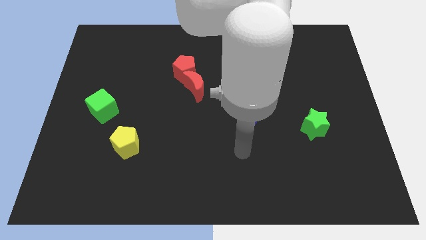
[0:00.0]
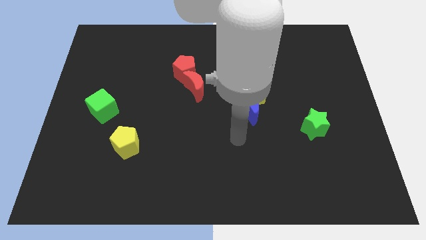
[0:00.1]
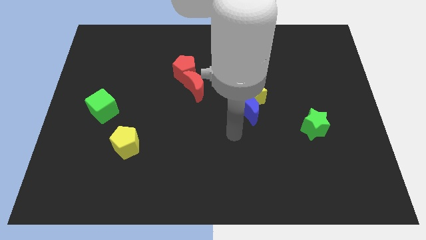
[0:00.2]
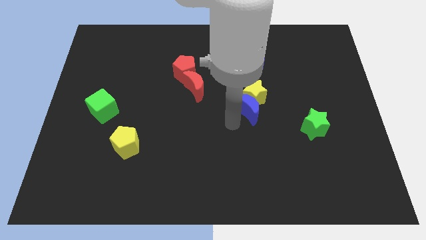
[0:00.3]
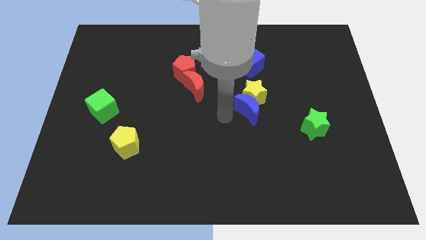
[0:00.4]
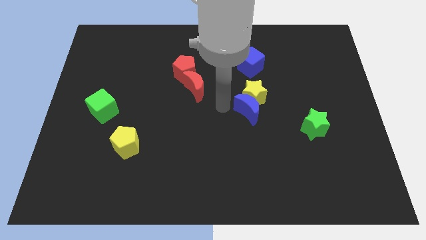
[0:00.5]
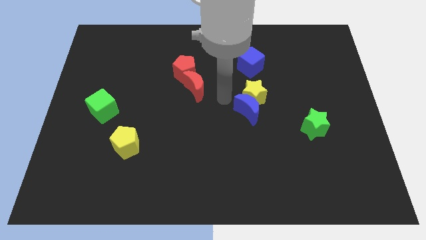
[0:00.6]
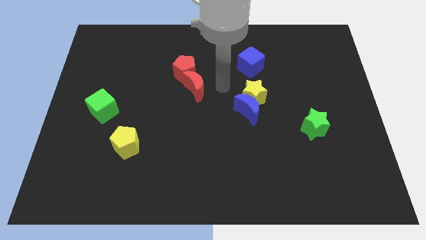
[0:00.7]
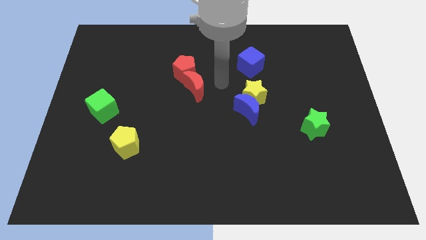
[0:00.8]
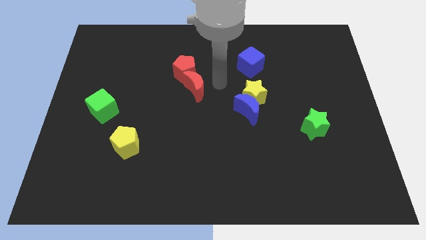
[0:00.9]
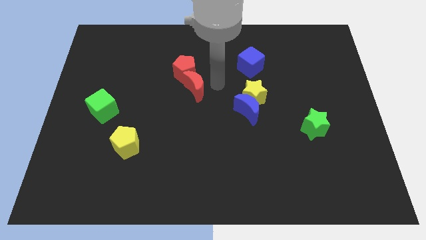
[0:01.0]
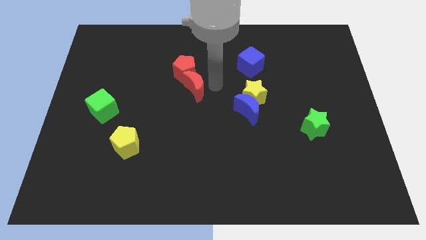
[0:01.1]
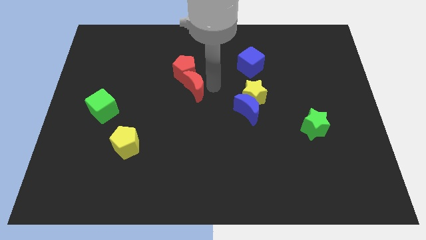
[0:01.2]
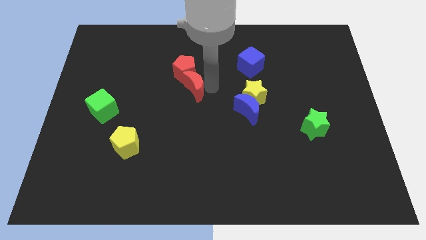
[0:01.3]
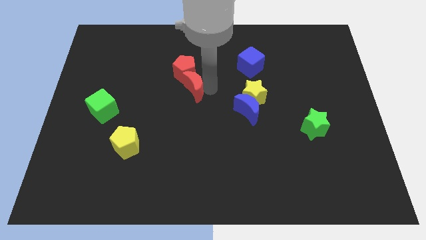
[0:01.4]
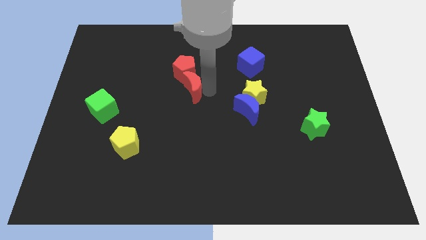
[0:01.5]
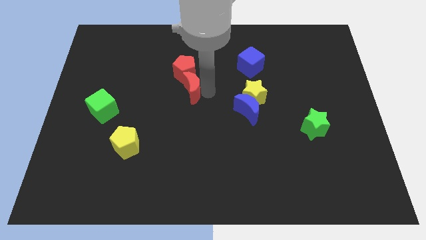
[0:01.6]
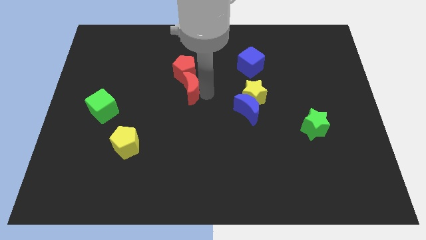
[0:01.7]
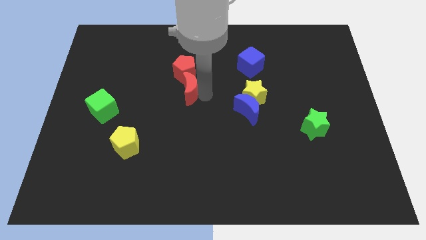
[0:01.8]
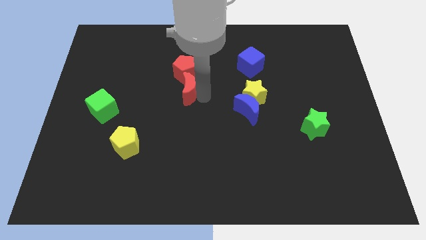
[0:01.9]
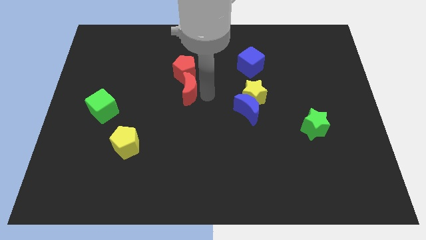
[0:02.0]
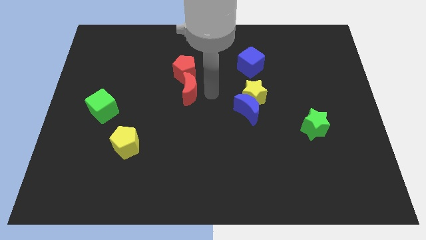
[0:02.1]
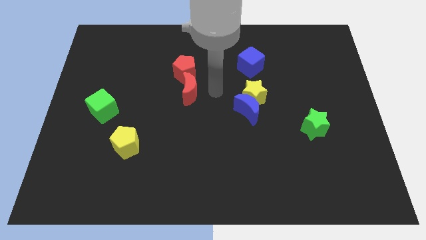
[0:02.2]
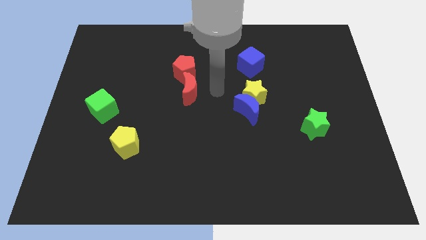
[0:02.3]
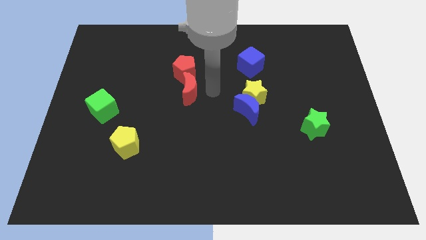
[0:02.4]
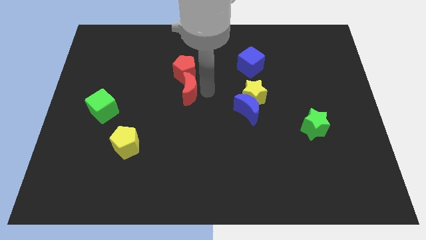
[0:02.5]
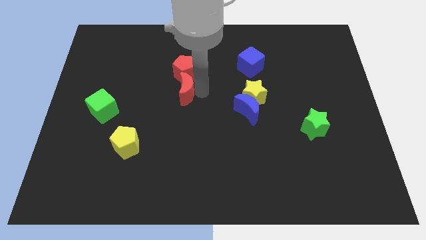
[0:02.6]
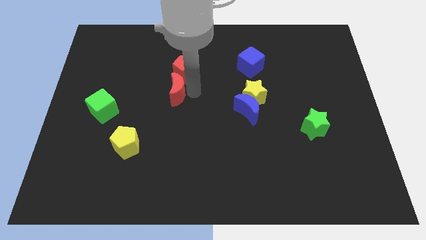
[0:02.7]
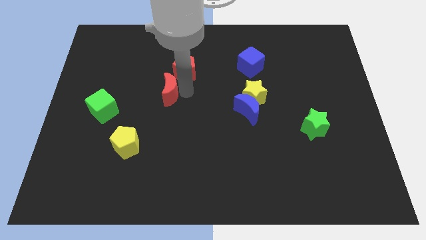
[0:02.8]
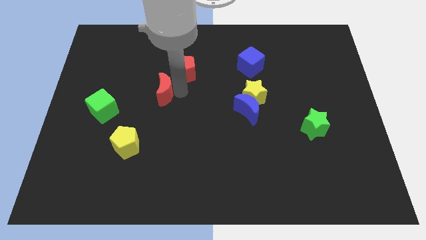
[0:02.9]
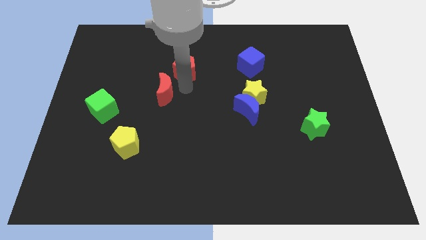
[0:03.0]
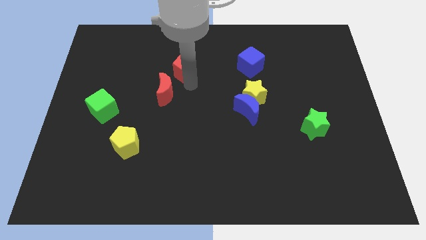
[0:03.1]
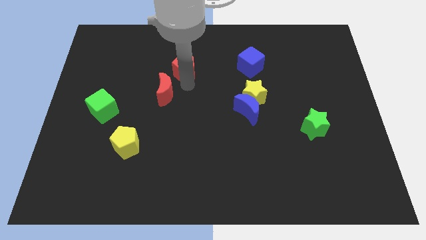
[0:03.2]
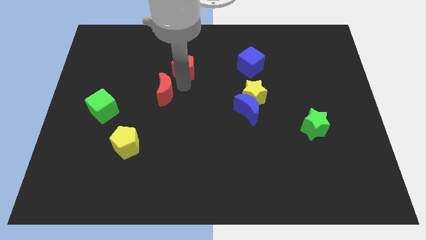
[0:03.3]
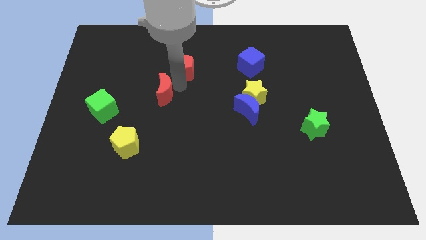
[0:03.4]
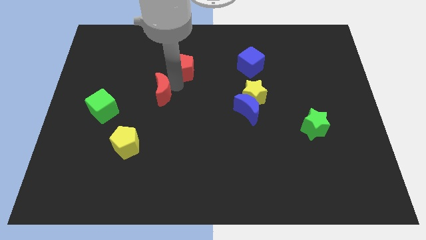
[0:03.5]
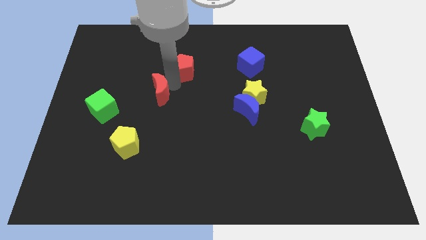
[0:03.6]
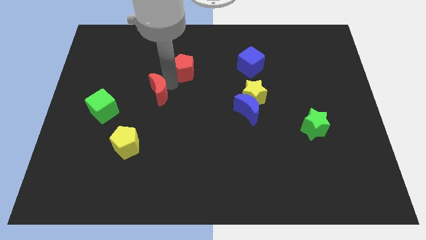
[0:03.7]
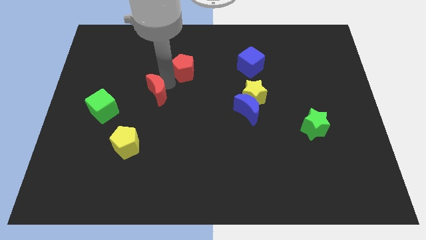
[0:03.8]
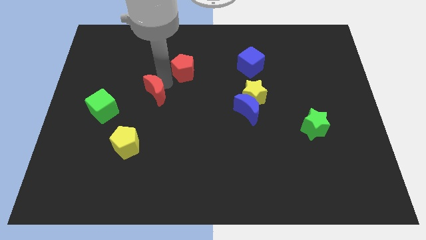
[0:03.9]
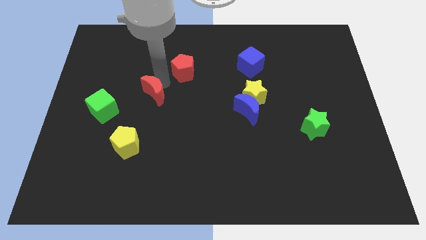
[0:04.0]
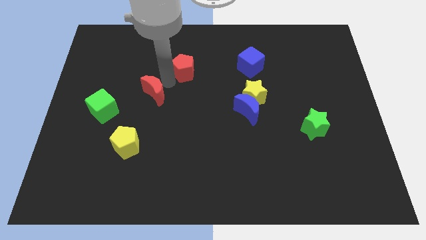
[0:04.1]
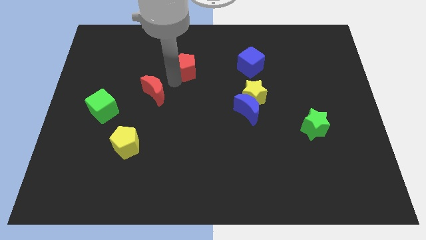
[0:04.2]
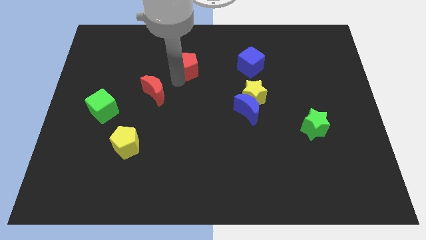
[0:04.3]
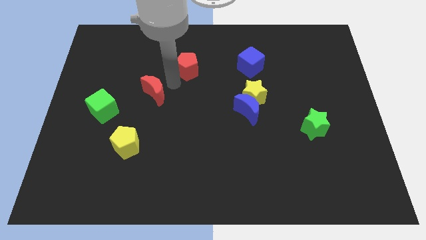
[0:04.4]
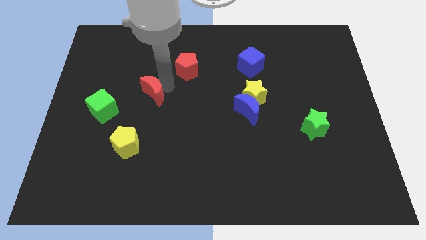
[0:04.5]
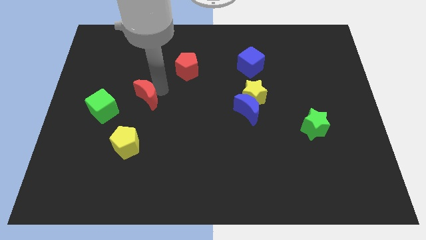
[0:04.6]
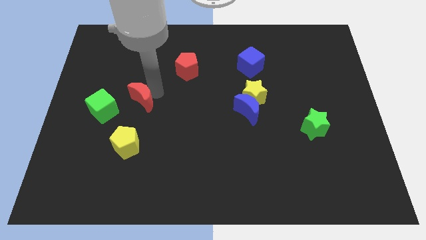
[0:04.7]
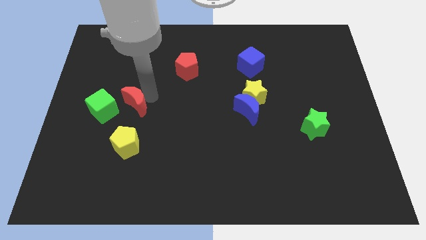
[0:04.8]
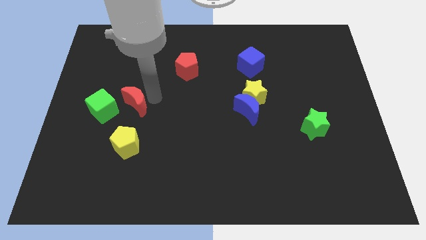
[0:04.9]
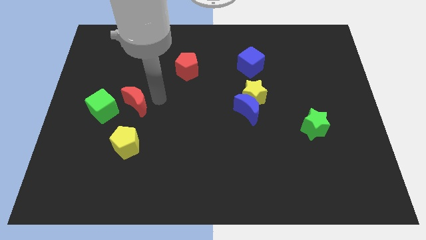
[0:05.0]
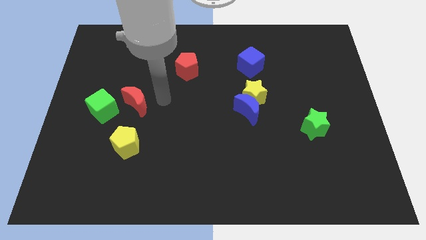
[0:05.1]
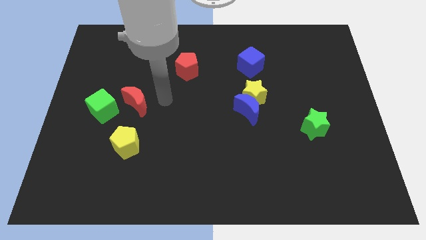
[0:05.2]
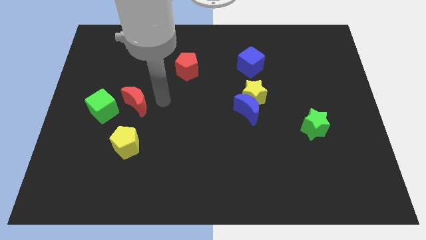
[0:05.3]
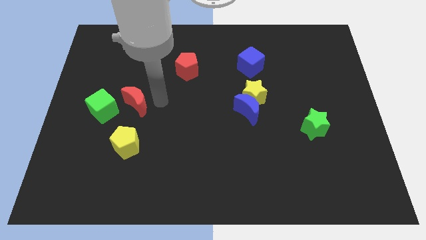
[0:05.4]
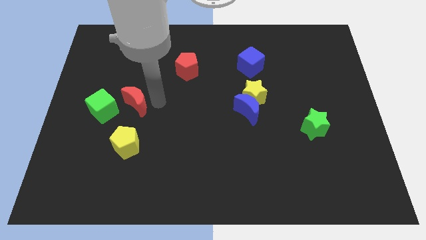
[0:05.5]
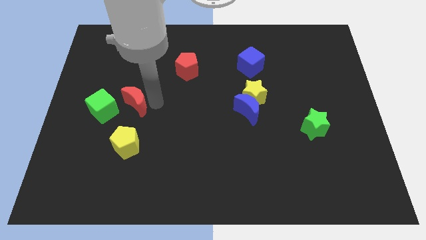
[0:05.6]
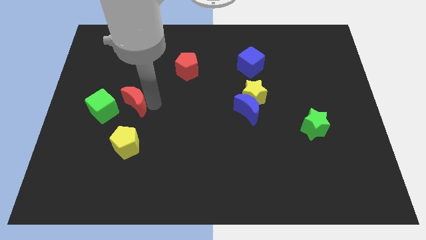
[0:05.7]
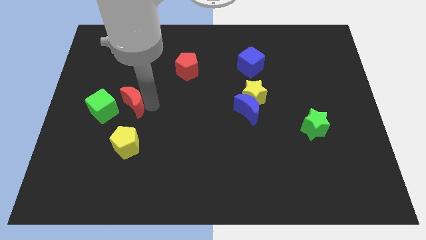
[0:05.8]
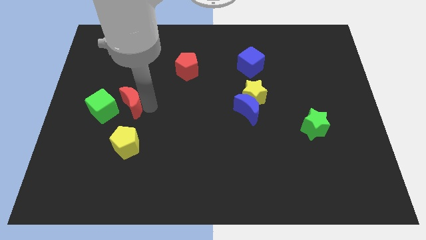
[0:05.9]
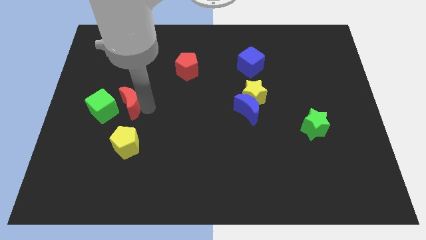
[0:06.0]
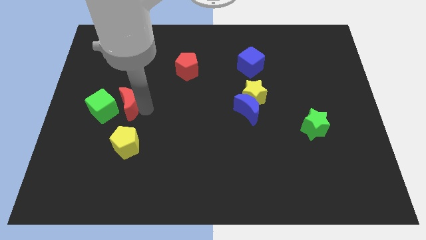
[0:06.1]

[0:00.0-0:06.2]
slide the red moon close to the green cube

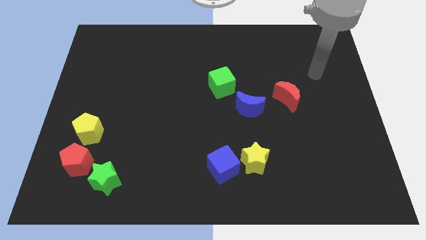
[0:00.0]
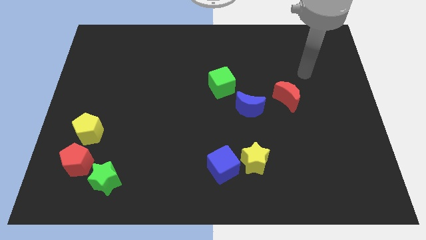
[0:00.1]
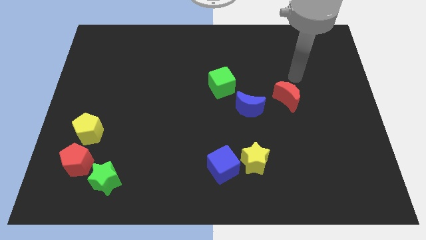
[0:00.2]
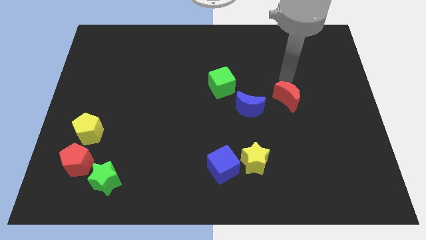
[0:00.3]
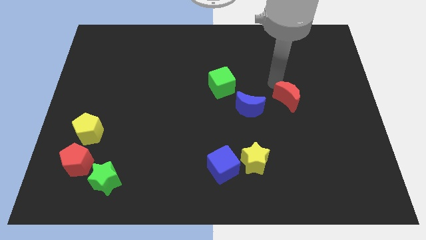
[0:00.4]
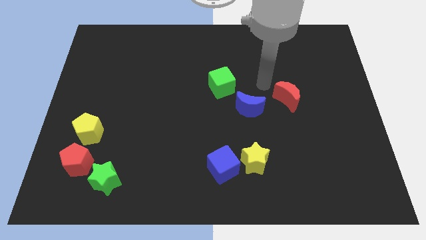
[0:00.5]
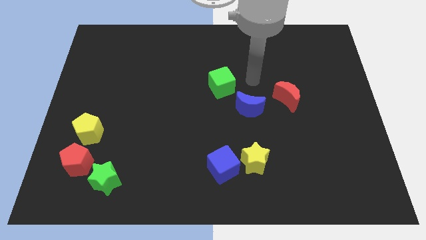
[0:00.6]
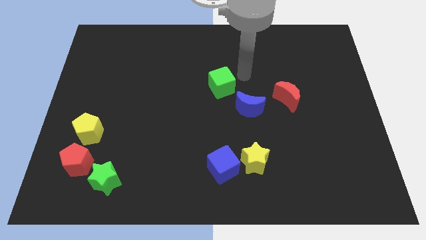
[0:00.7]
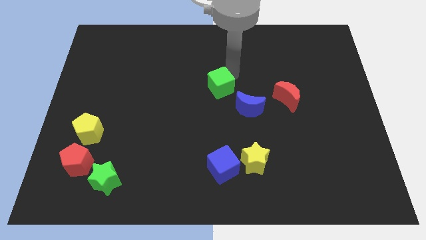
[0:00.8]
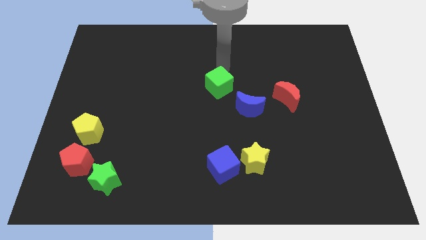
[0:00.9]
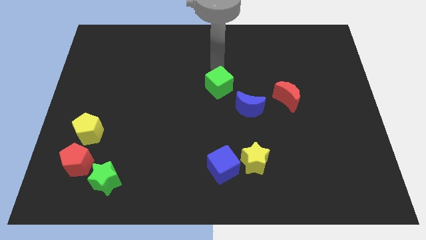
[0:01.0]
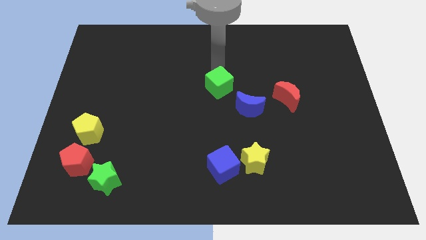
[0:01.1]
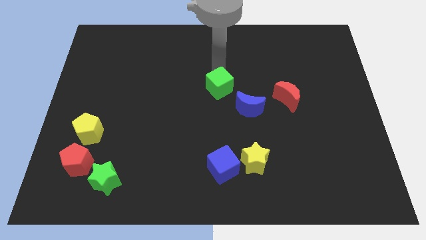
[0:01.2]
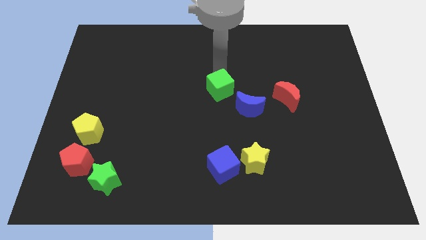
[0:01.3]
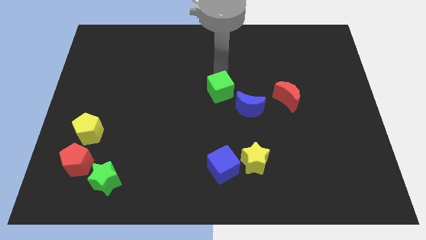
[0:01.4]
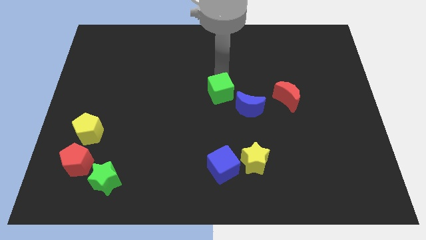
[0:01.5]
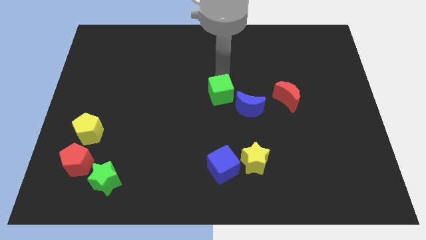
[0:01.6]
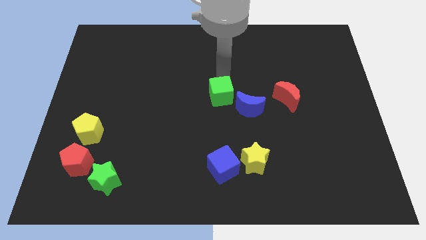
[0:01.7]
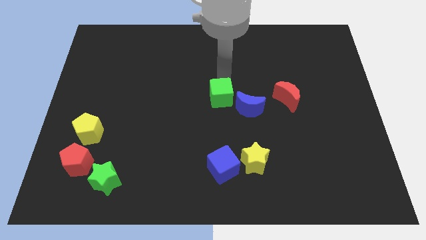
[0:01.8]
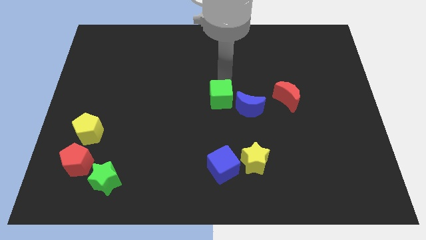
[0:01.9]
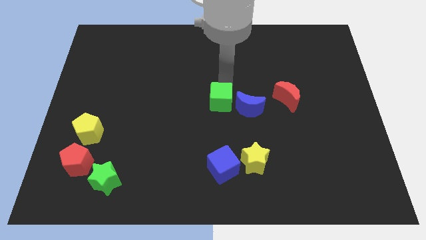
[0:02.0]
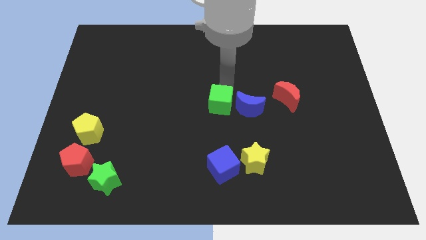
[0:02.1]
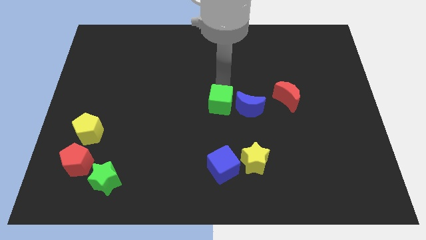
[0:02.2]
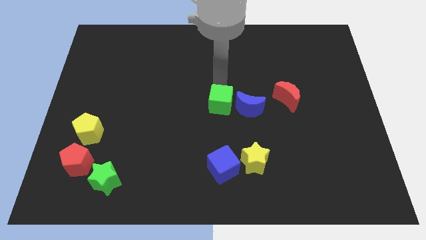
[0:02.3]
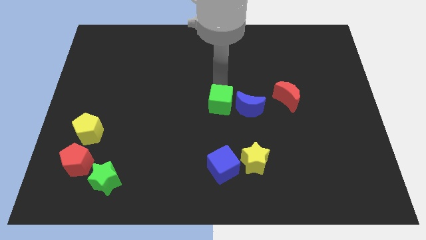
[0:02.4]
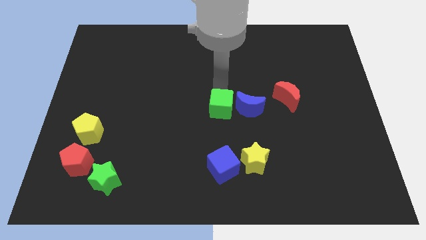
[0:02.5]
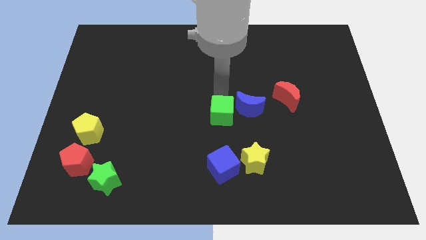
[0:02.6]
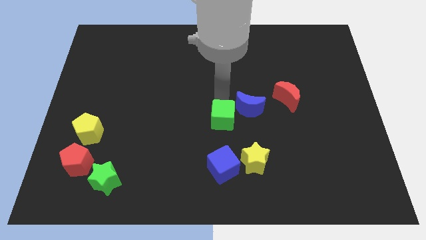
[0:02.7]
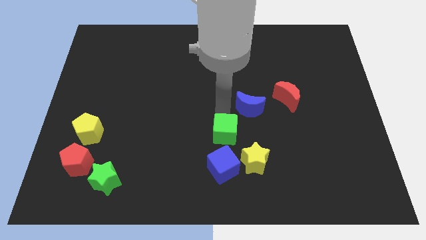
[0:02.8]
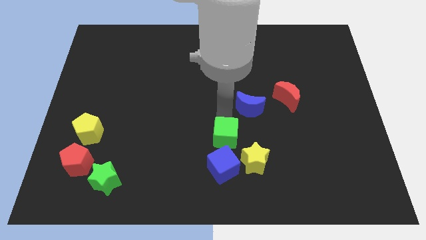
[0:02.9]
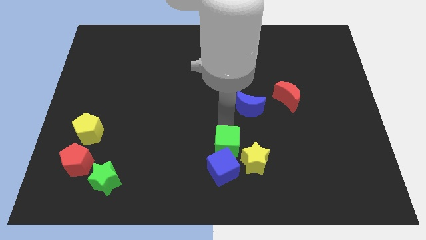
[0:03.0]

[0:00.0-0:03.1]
push the green cube next to the blue cube
